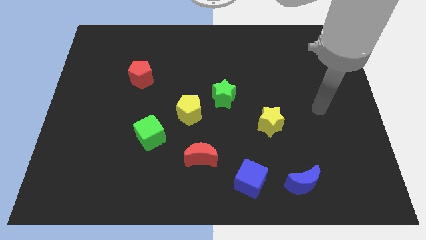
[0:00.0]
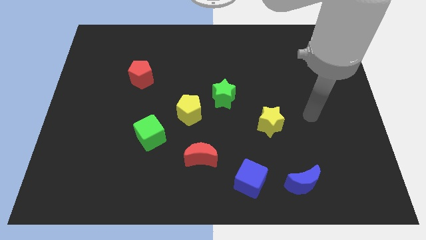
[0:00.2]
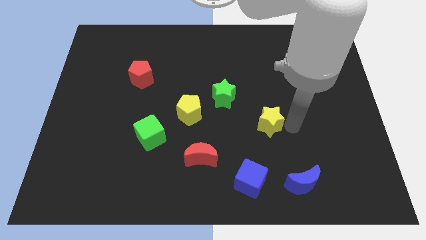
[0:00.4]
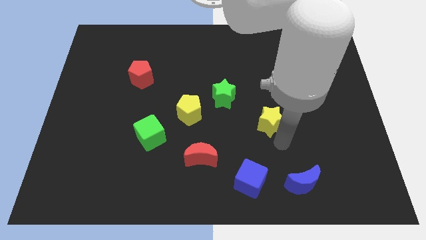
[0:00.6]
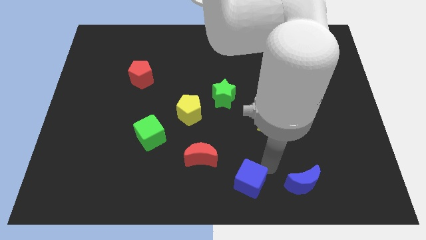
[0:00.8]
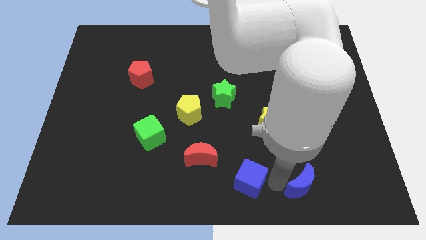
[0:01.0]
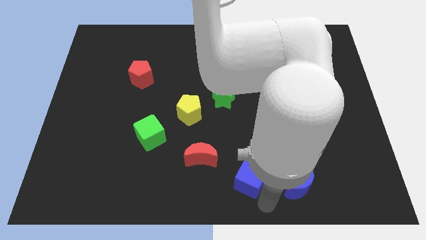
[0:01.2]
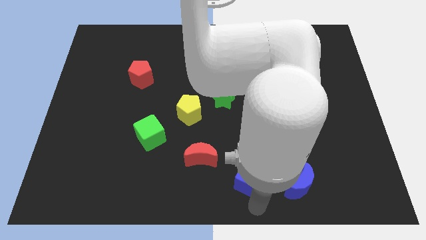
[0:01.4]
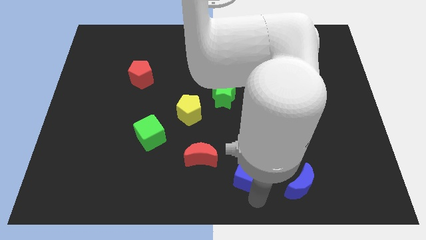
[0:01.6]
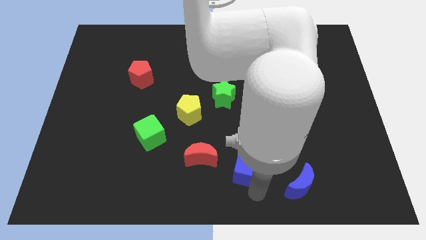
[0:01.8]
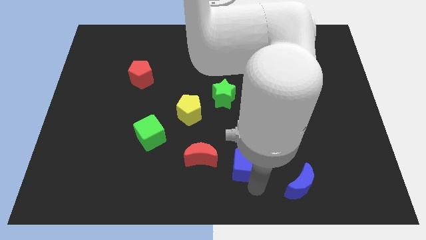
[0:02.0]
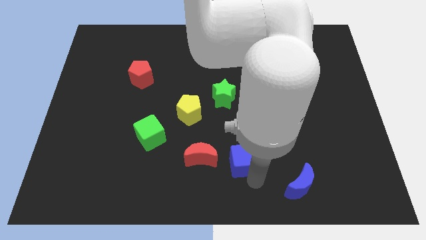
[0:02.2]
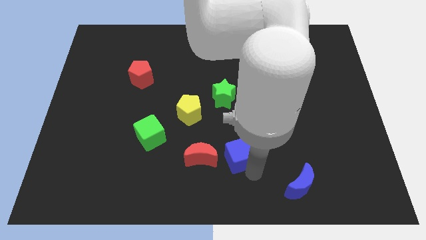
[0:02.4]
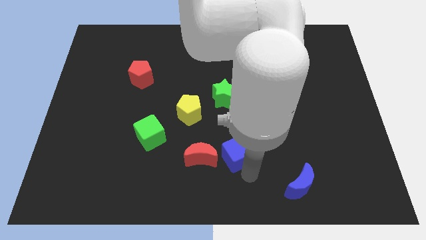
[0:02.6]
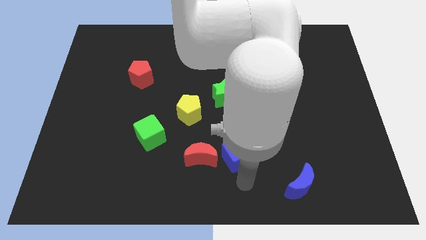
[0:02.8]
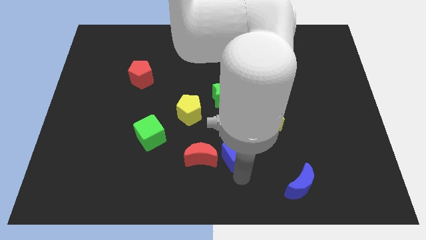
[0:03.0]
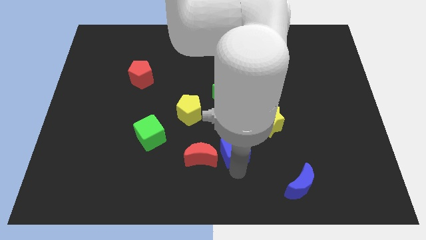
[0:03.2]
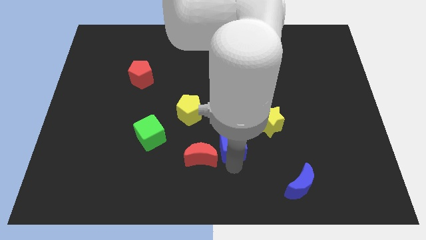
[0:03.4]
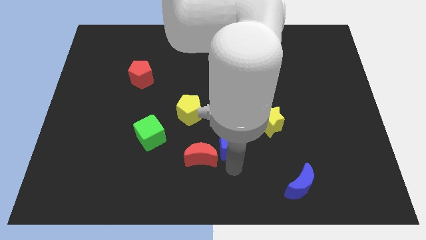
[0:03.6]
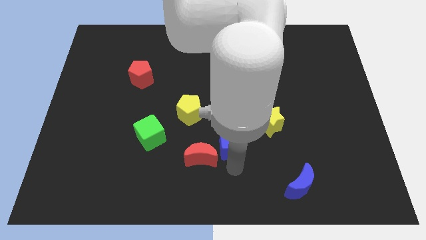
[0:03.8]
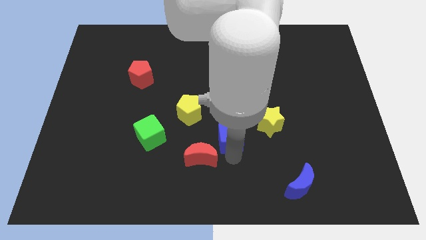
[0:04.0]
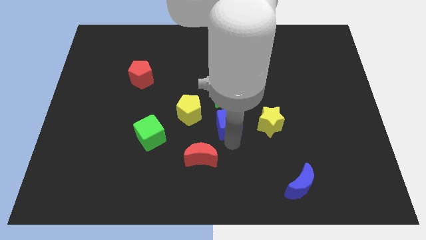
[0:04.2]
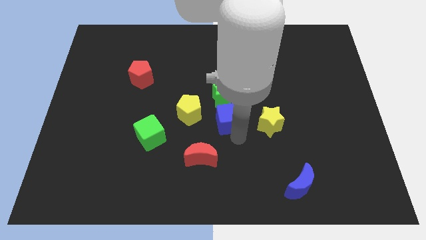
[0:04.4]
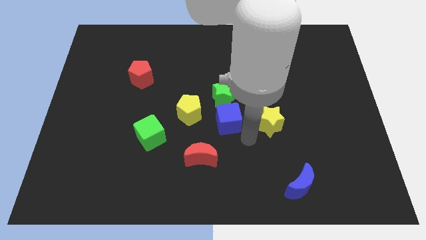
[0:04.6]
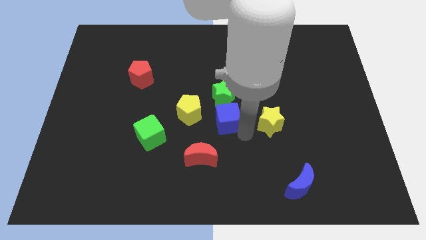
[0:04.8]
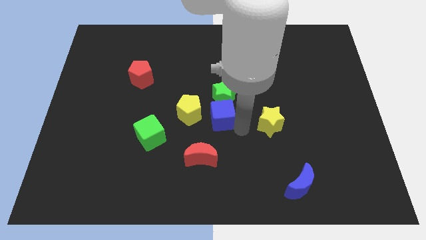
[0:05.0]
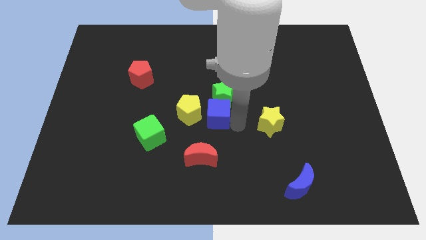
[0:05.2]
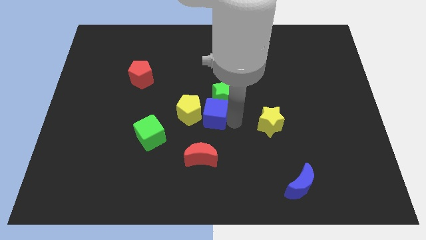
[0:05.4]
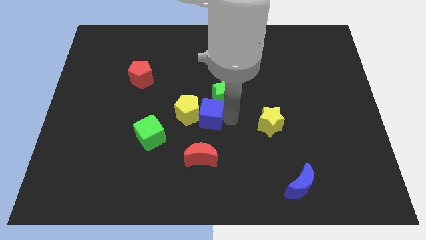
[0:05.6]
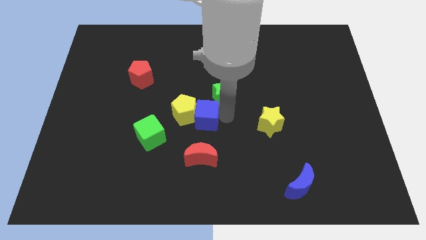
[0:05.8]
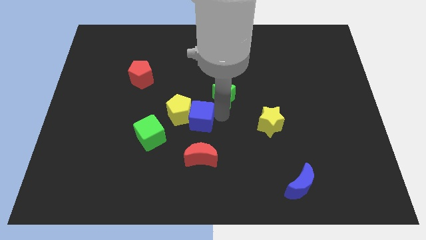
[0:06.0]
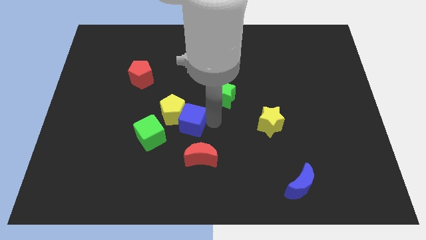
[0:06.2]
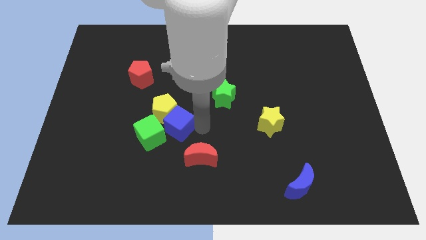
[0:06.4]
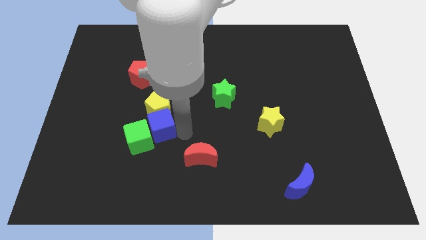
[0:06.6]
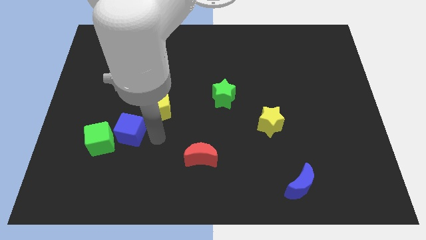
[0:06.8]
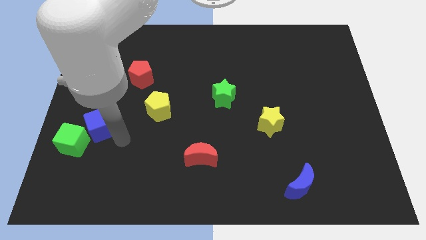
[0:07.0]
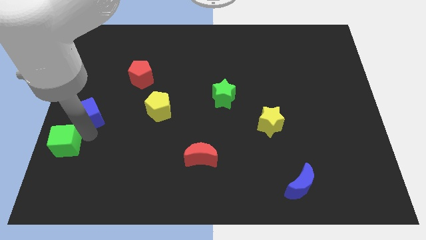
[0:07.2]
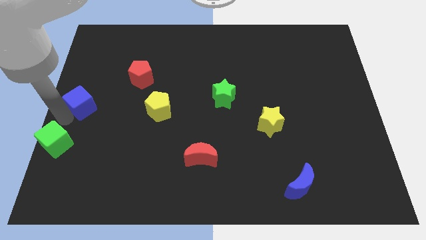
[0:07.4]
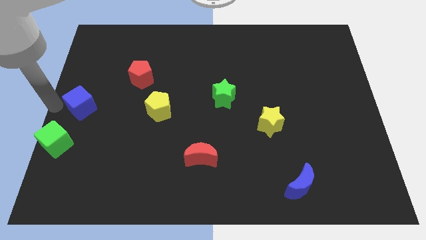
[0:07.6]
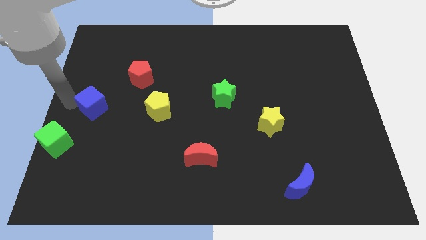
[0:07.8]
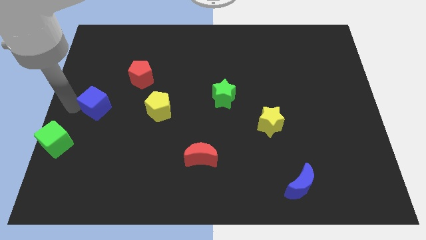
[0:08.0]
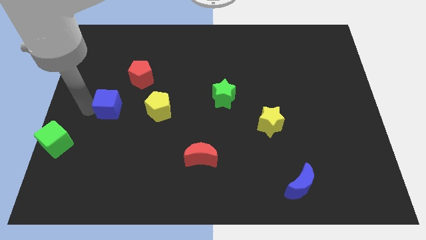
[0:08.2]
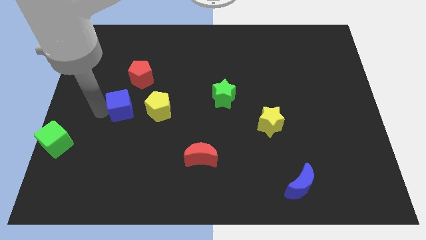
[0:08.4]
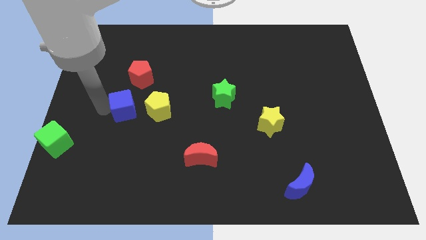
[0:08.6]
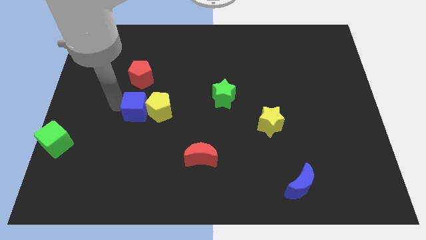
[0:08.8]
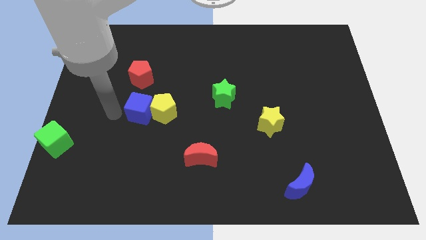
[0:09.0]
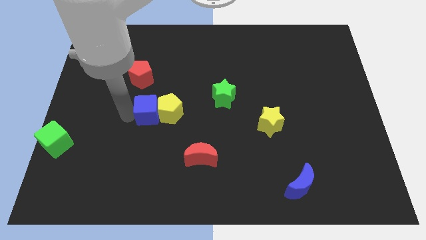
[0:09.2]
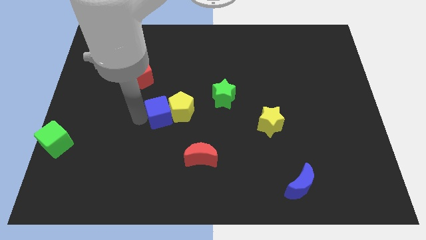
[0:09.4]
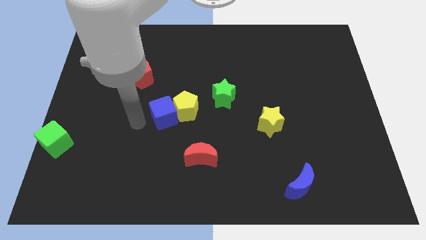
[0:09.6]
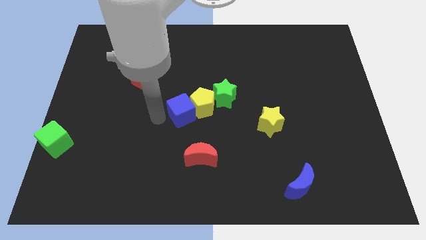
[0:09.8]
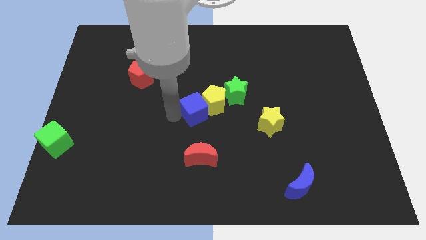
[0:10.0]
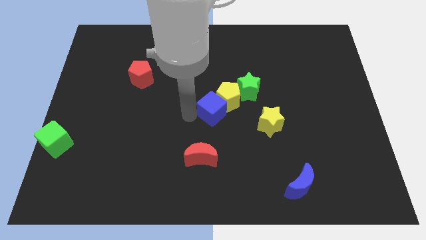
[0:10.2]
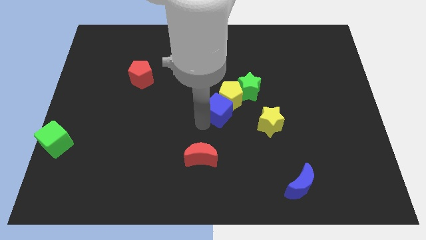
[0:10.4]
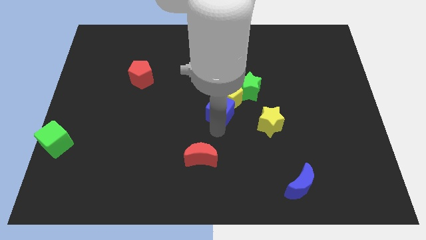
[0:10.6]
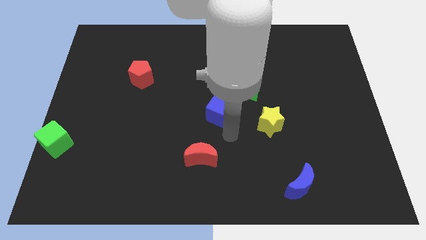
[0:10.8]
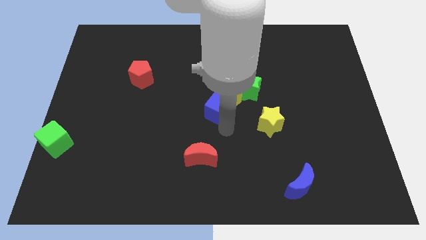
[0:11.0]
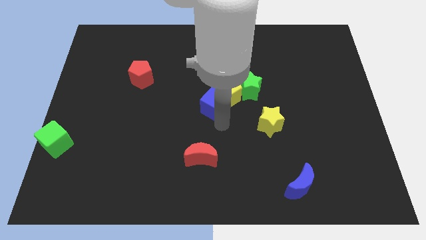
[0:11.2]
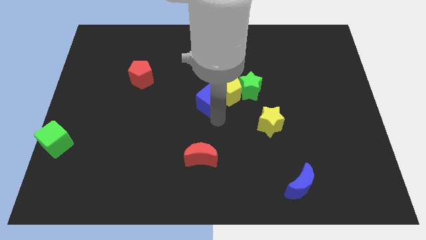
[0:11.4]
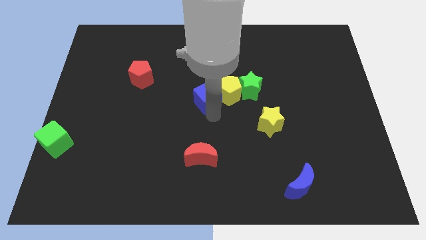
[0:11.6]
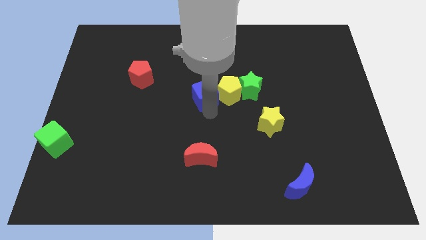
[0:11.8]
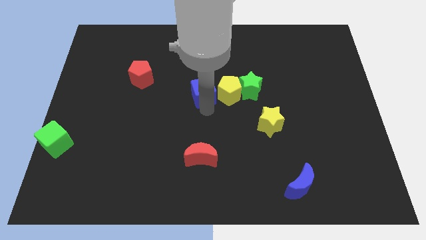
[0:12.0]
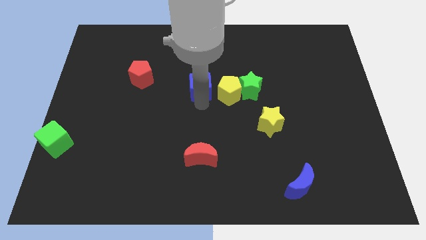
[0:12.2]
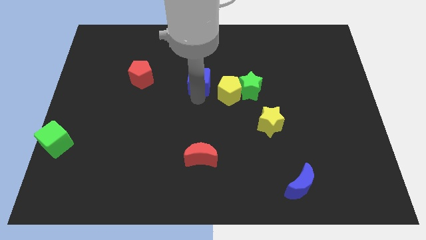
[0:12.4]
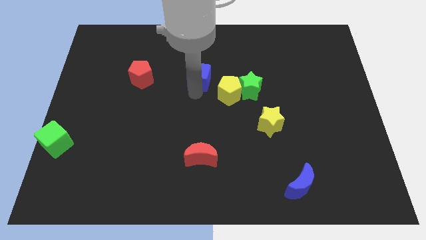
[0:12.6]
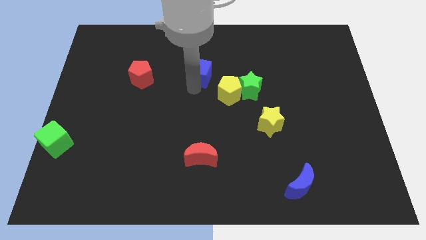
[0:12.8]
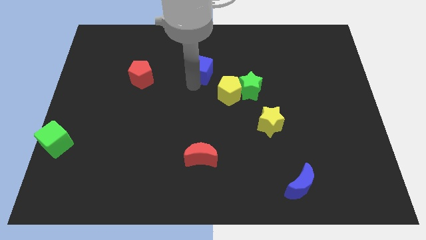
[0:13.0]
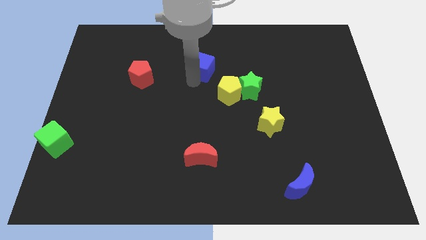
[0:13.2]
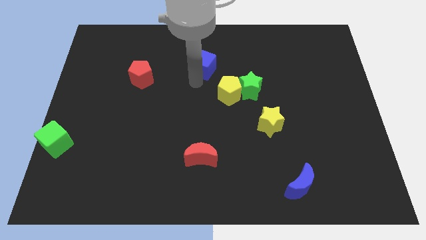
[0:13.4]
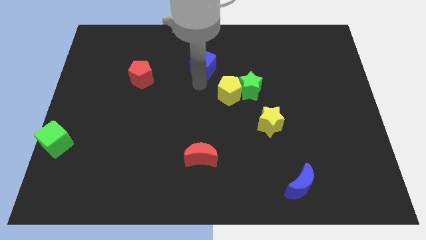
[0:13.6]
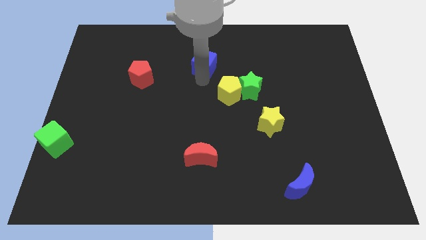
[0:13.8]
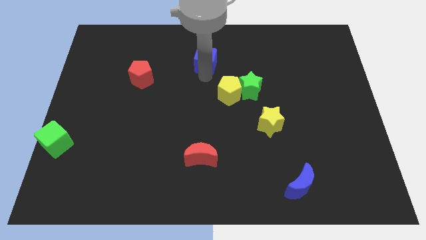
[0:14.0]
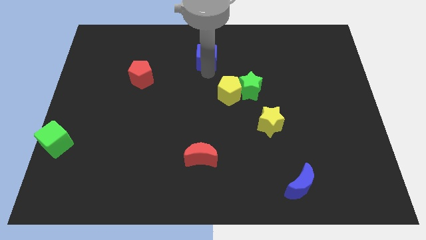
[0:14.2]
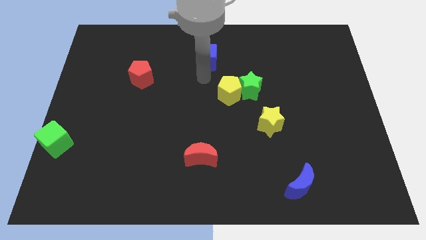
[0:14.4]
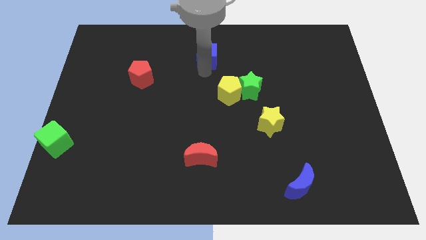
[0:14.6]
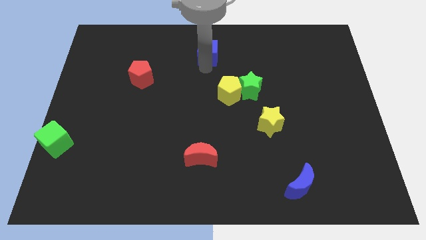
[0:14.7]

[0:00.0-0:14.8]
slide the blue cube to the top
